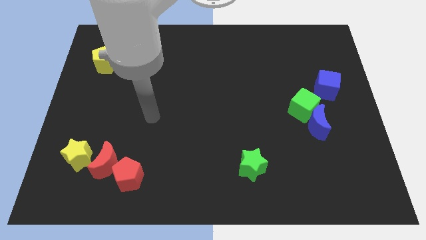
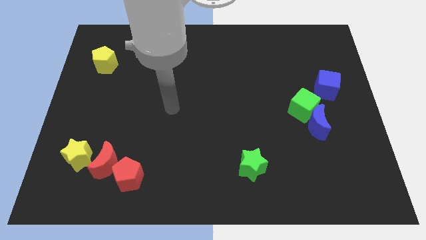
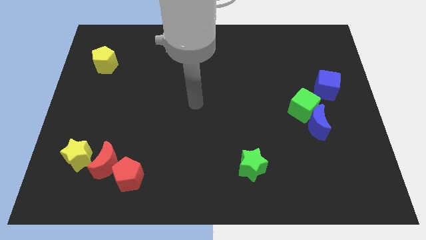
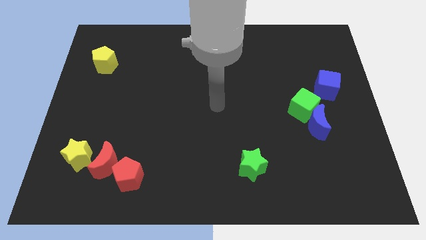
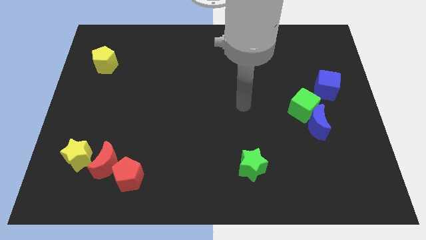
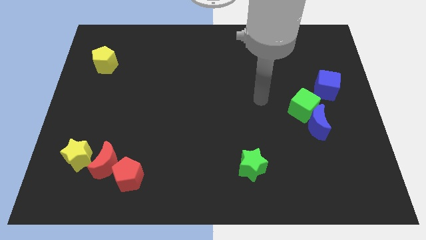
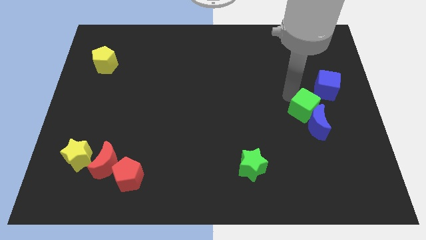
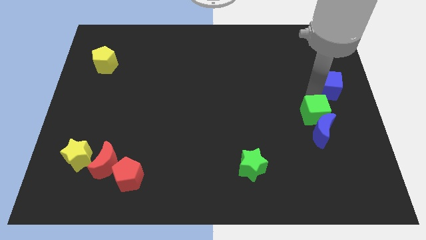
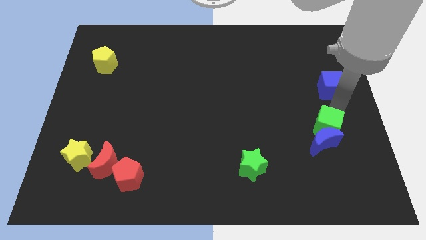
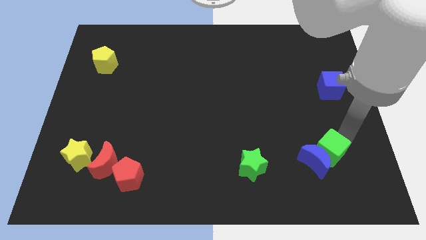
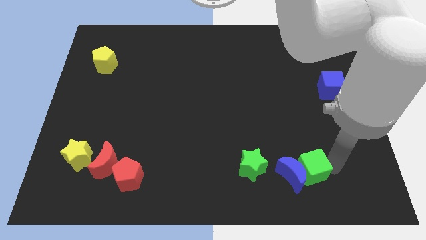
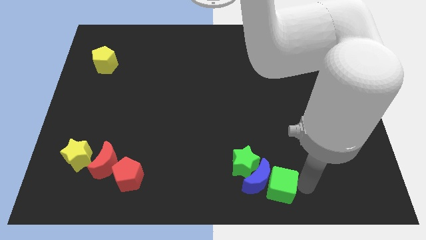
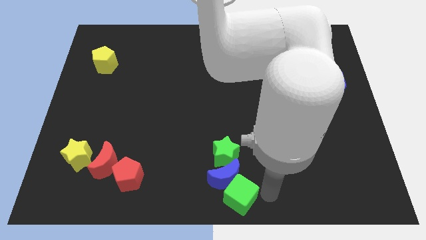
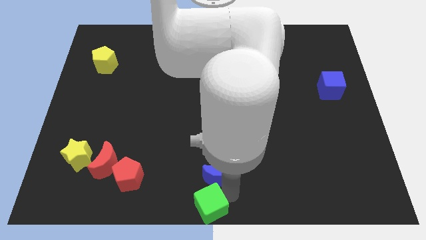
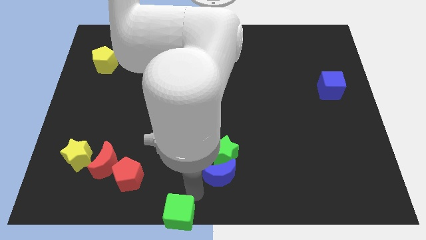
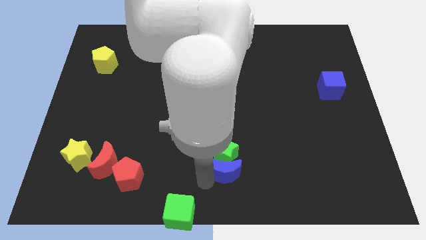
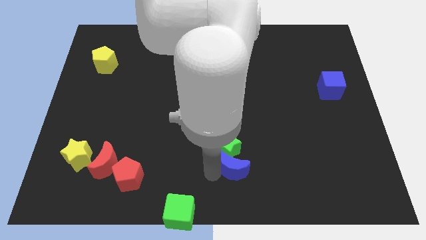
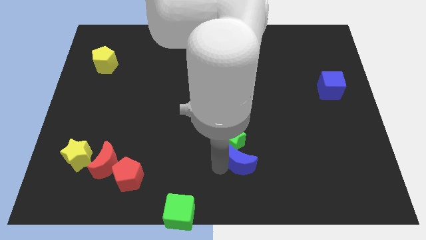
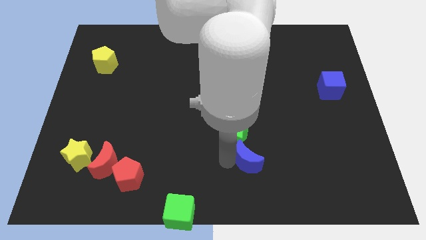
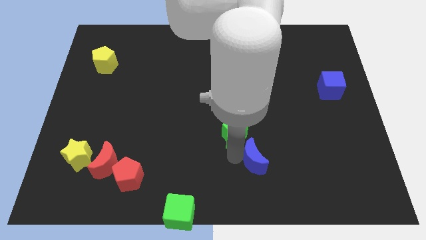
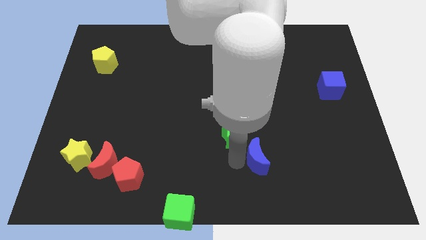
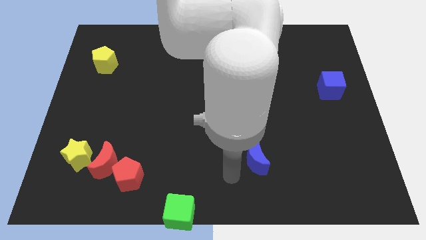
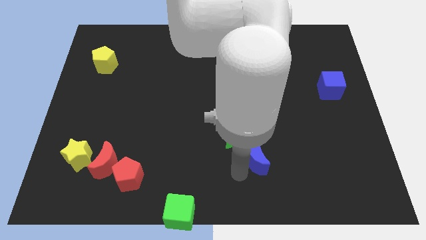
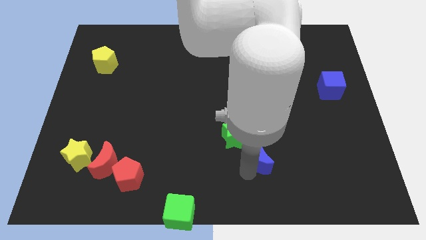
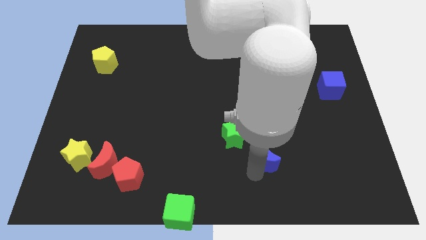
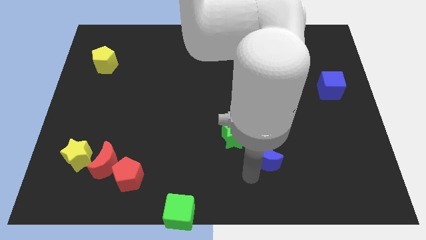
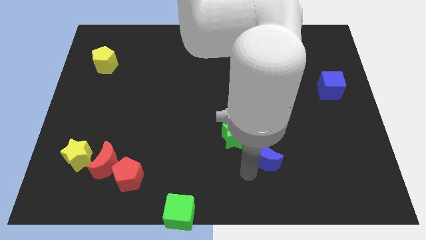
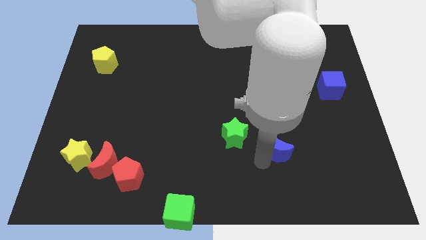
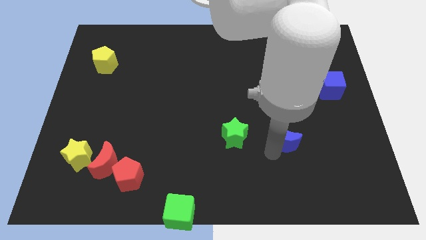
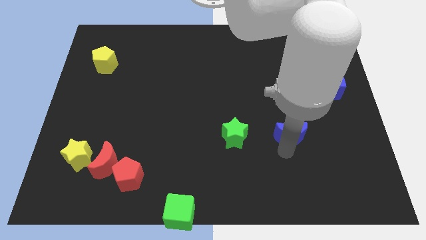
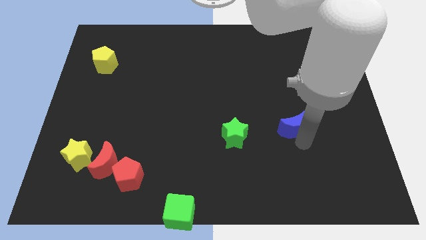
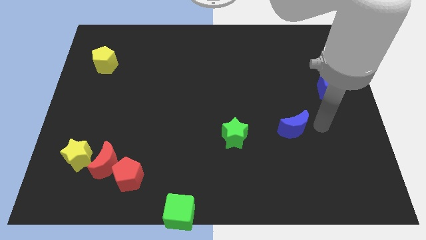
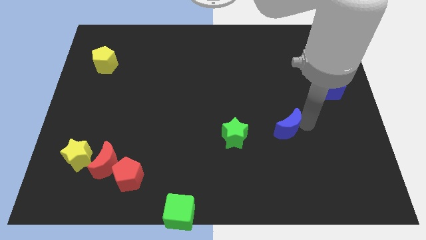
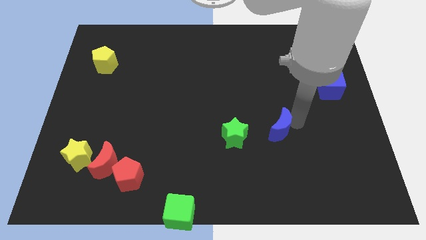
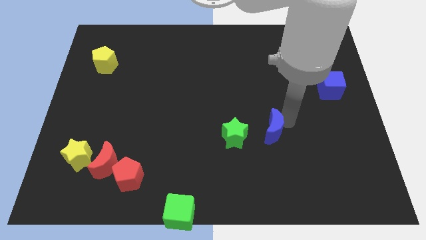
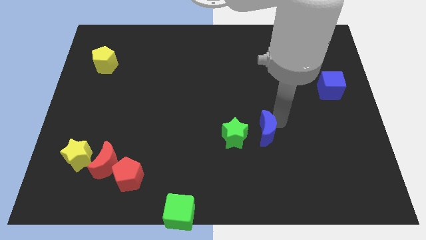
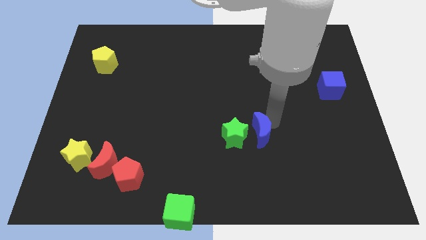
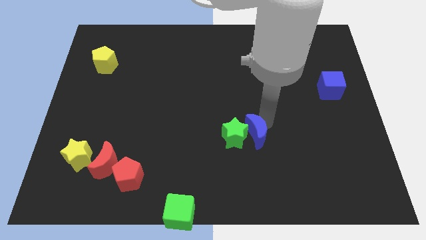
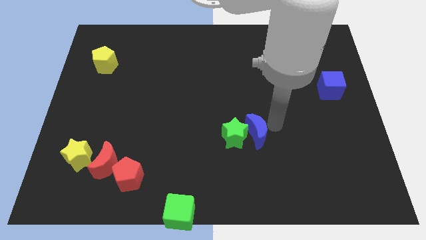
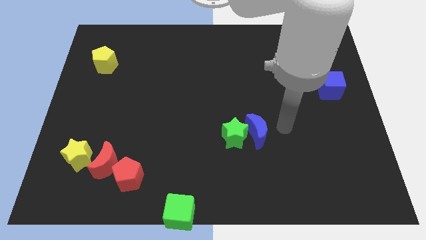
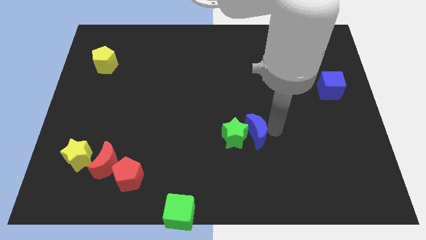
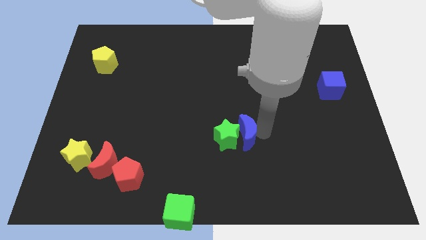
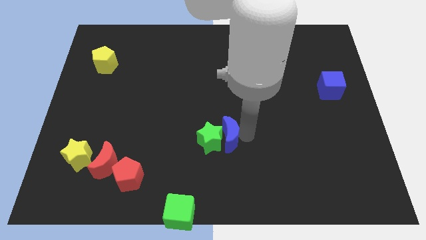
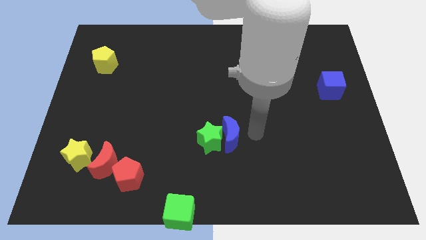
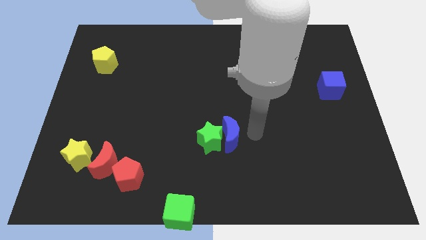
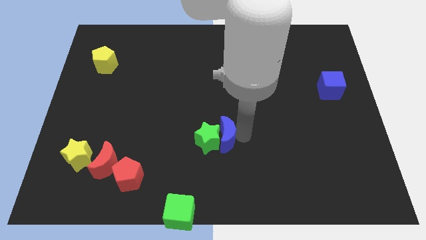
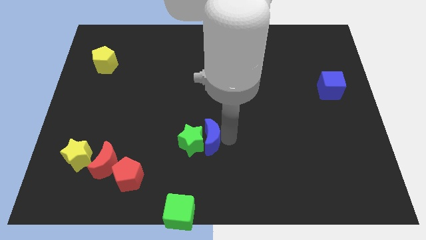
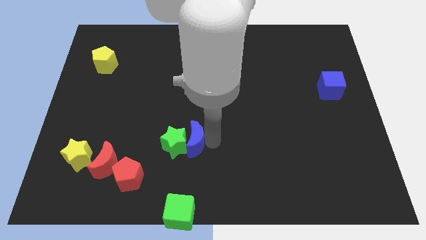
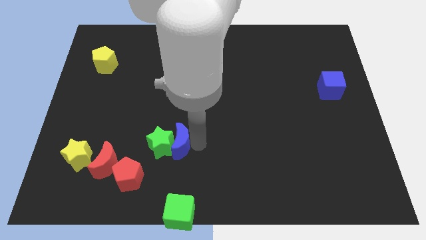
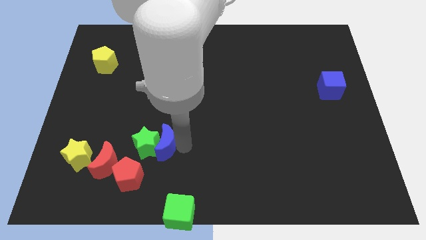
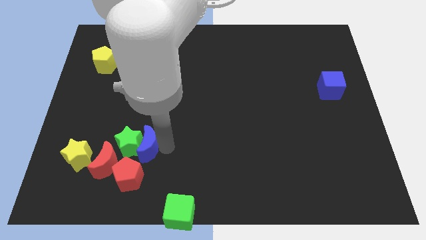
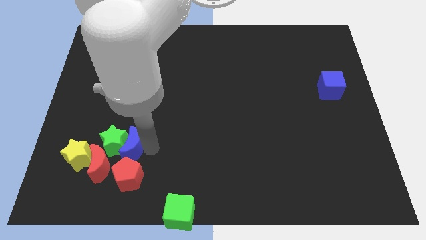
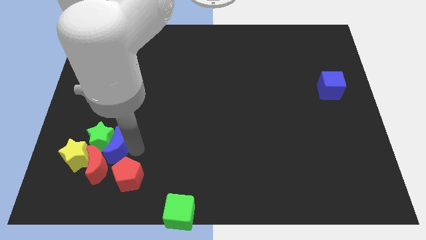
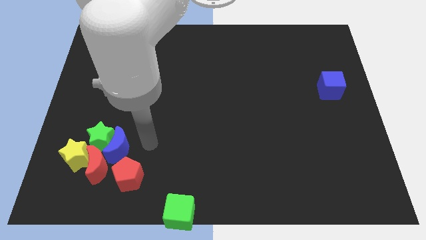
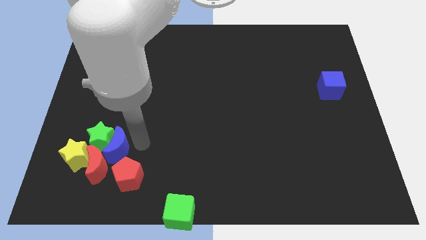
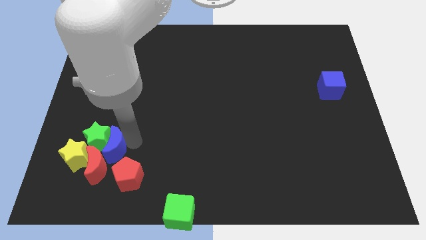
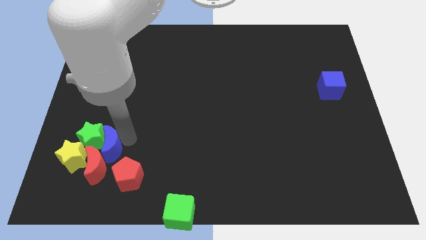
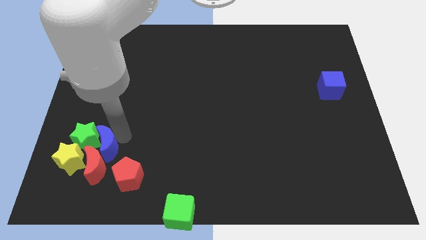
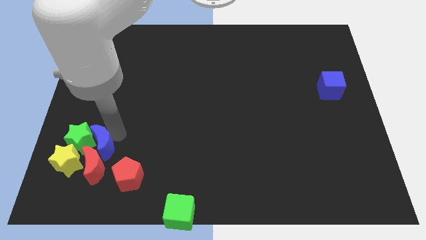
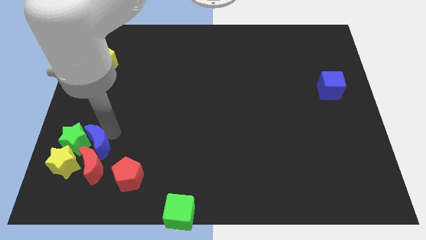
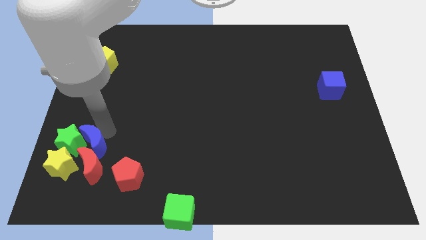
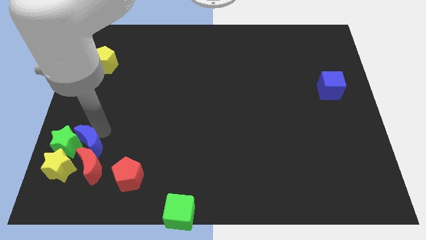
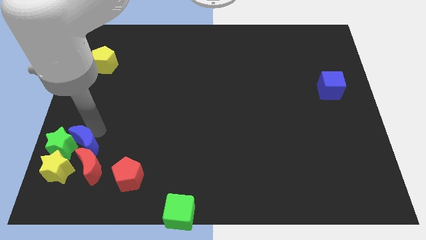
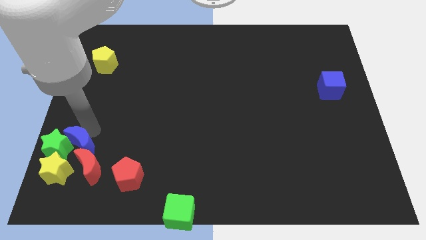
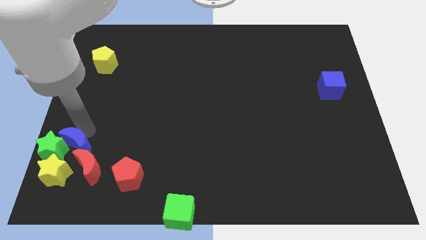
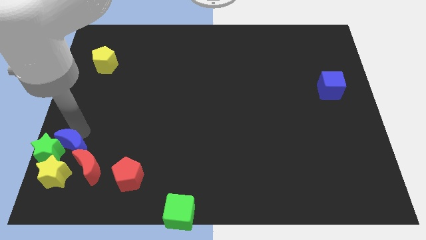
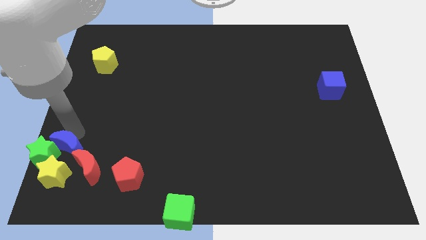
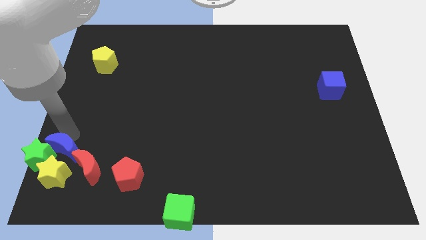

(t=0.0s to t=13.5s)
slide the blue moon next to the yellow star

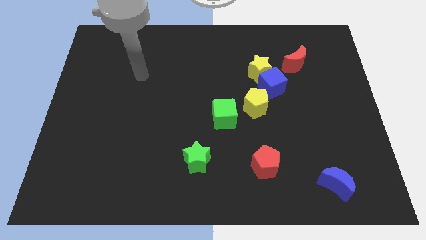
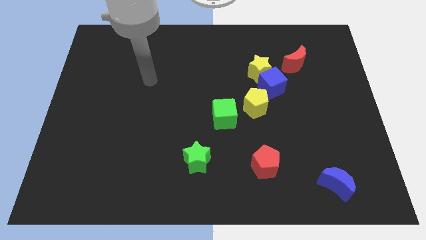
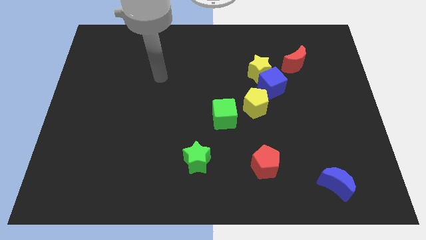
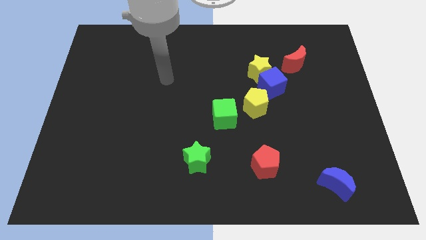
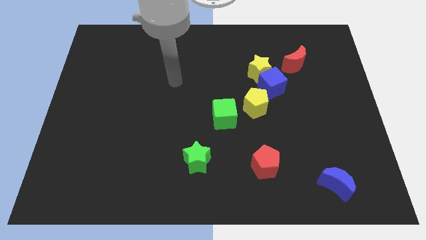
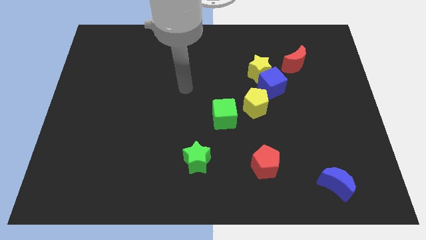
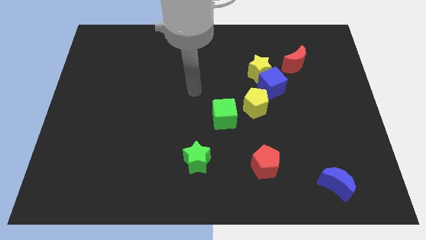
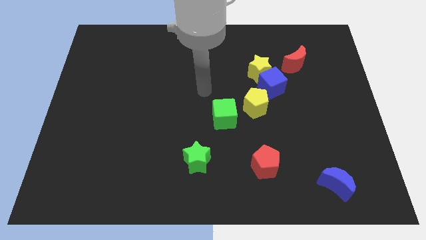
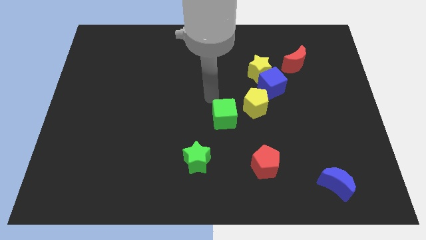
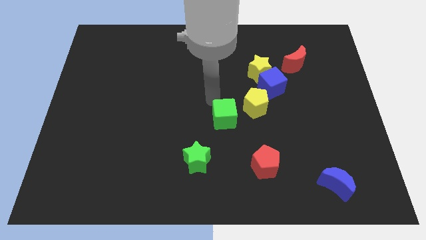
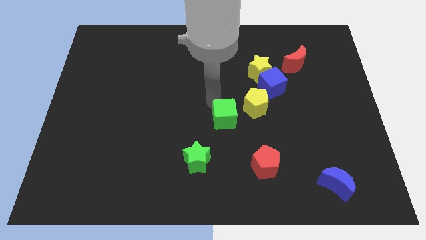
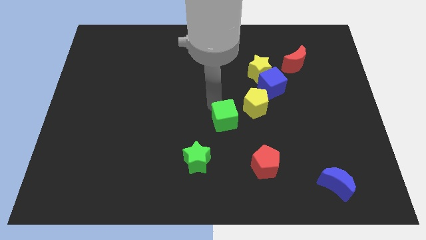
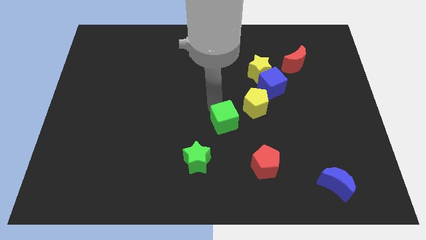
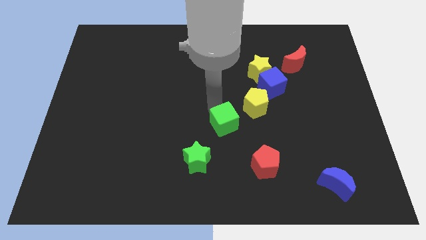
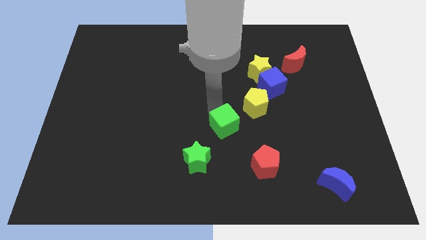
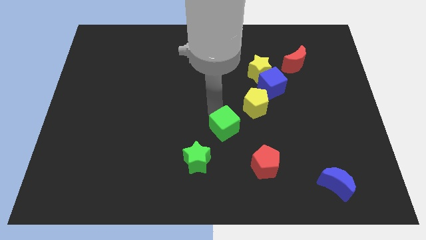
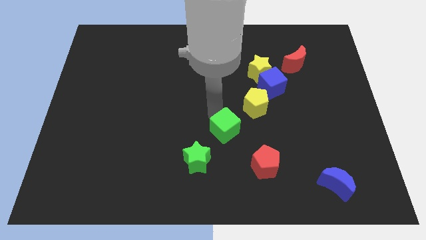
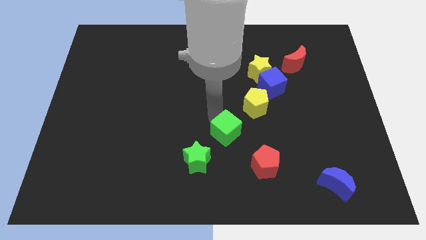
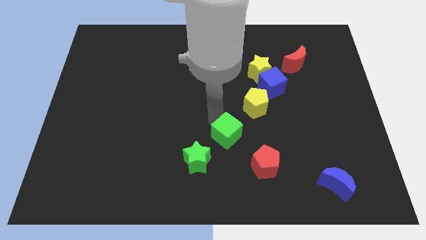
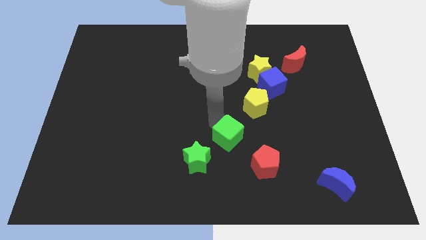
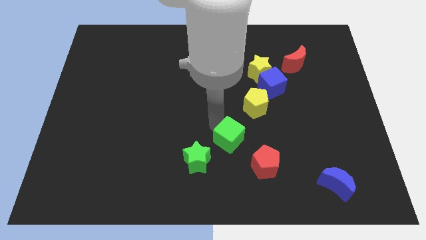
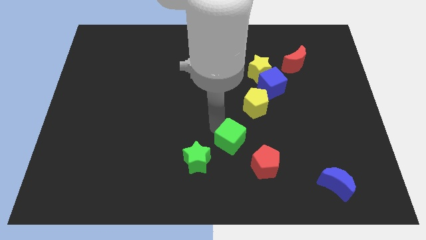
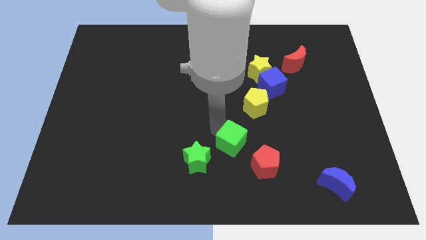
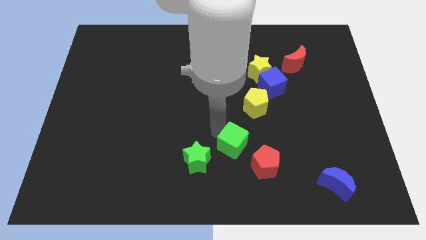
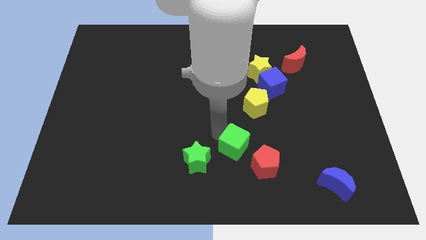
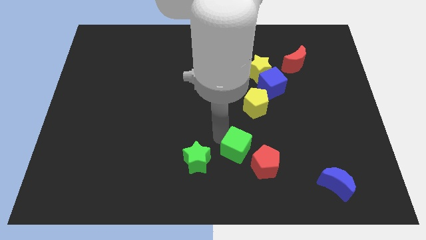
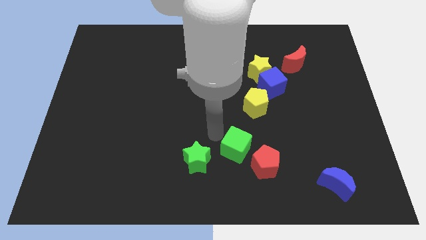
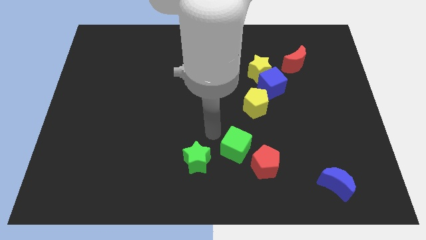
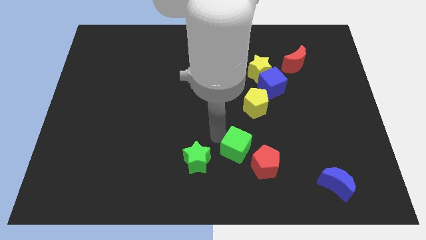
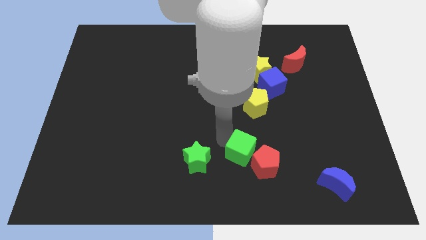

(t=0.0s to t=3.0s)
push the green cube towards the red pentagon
